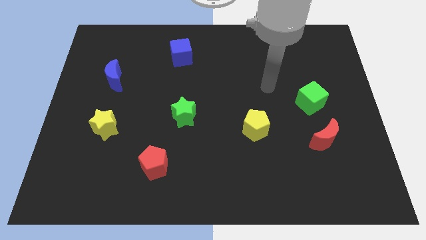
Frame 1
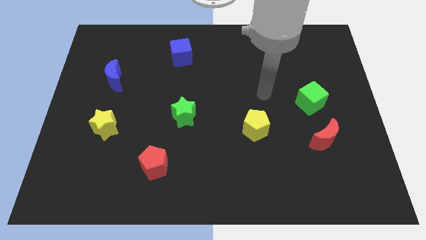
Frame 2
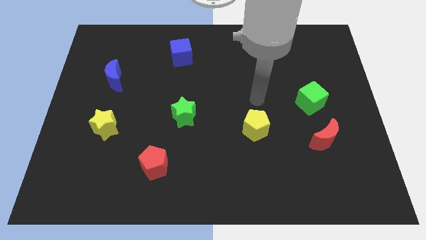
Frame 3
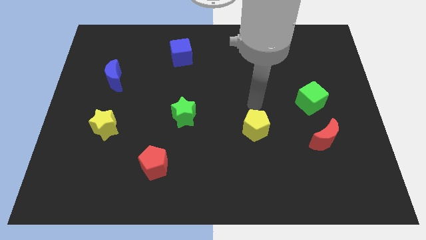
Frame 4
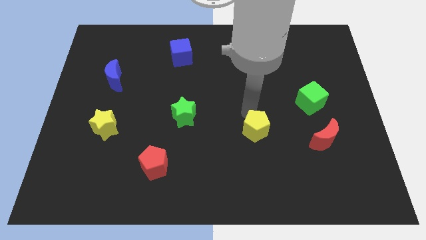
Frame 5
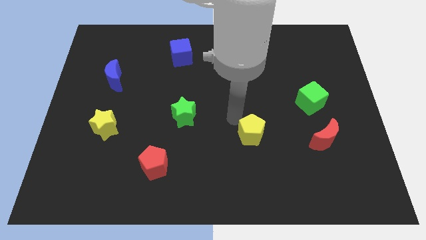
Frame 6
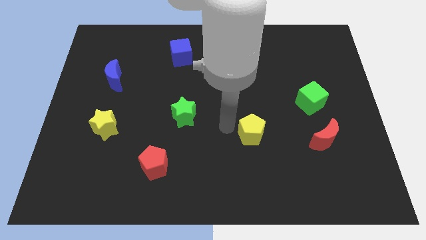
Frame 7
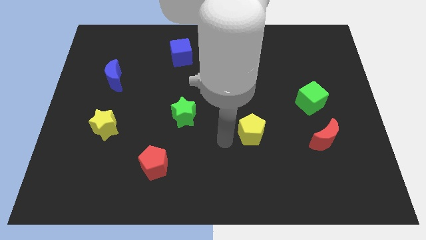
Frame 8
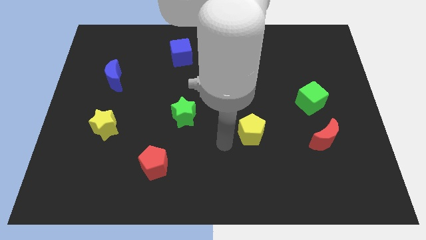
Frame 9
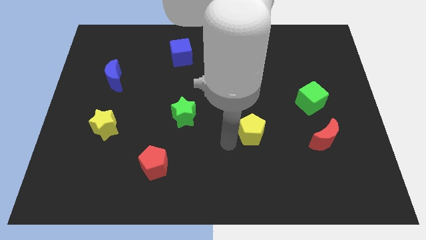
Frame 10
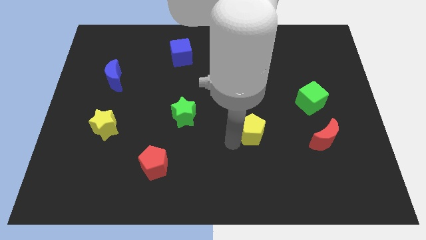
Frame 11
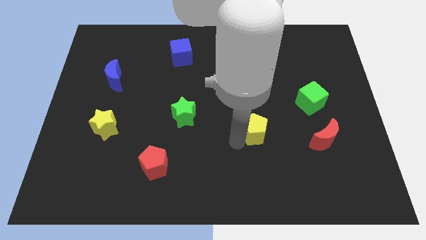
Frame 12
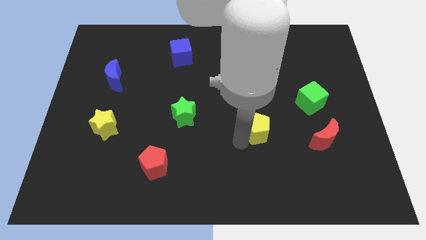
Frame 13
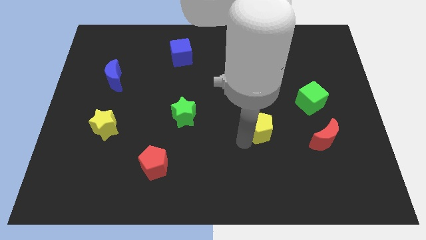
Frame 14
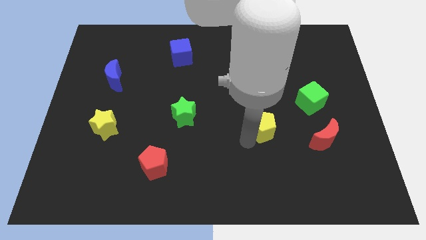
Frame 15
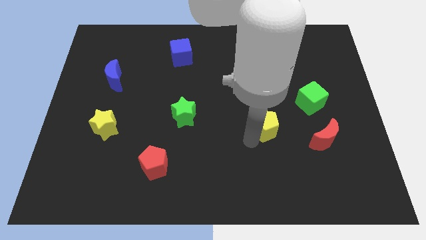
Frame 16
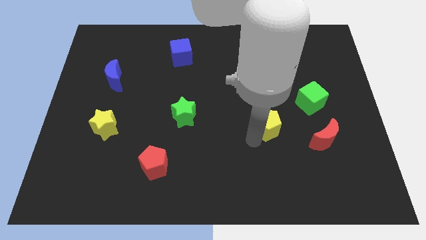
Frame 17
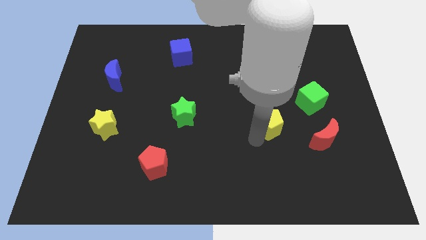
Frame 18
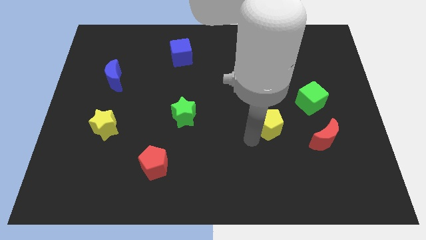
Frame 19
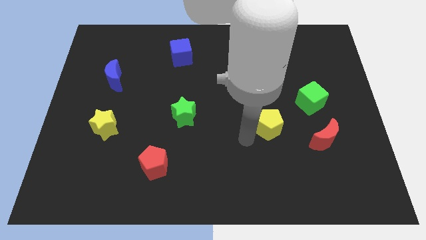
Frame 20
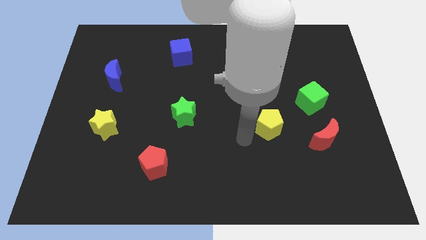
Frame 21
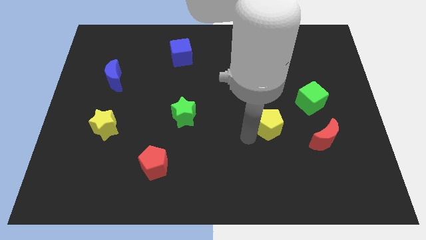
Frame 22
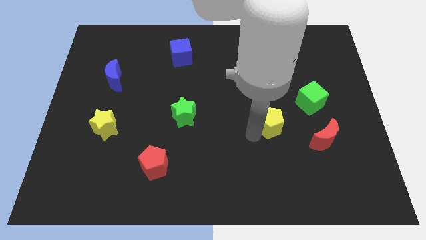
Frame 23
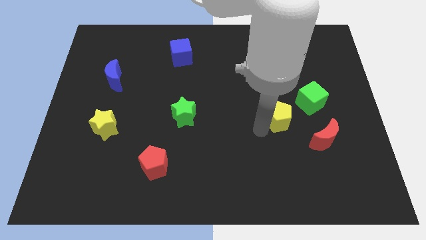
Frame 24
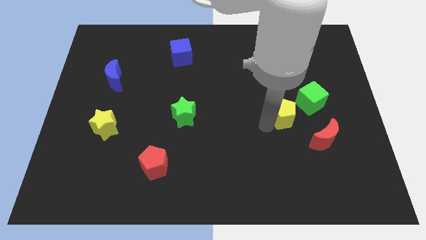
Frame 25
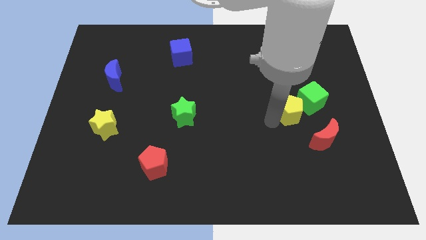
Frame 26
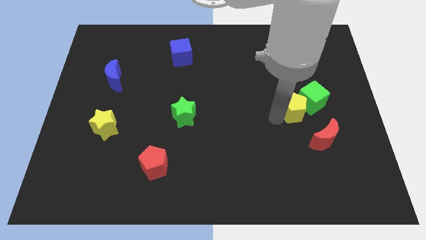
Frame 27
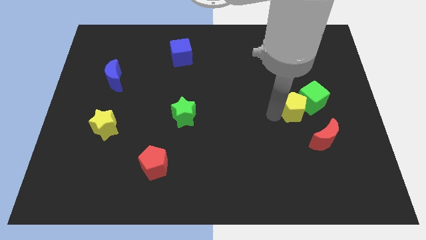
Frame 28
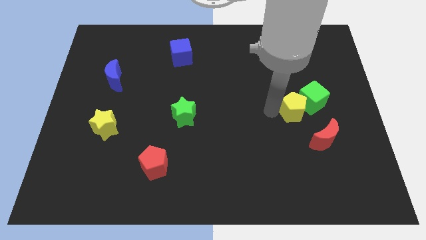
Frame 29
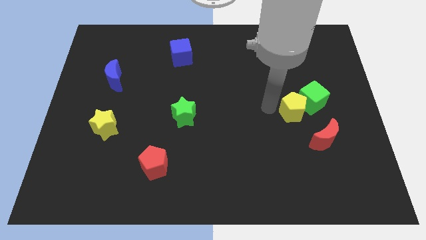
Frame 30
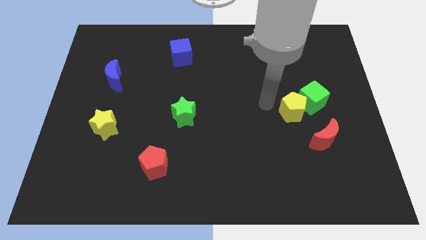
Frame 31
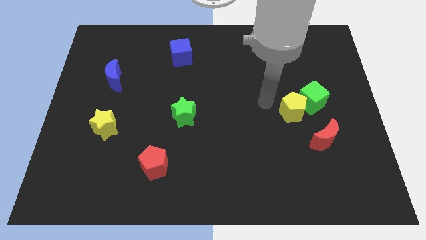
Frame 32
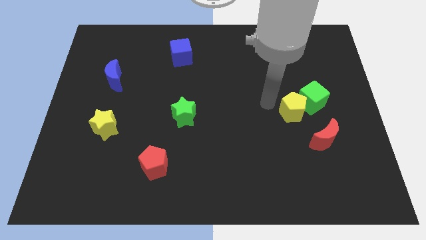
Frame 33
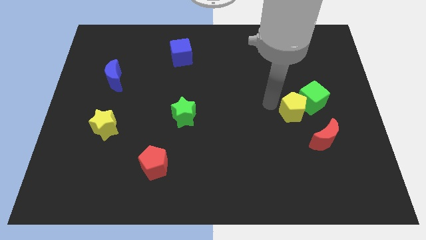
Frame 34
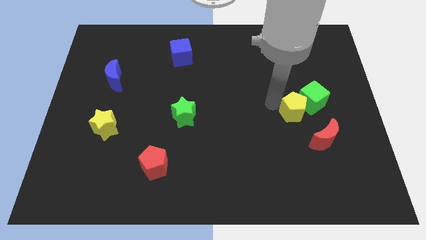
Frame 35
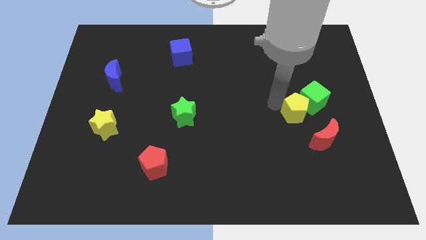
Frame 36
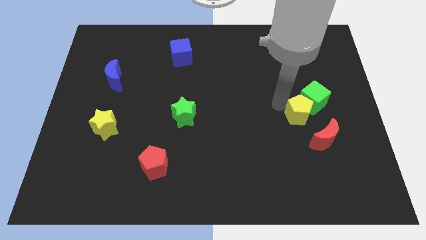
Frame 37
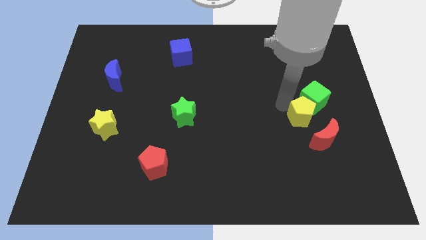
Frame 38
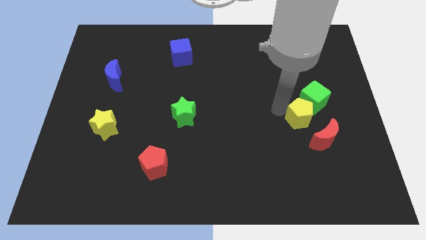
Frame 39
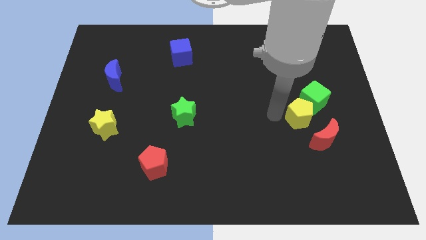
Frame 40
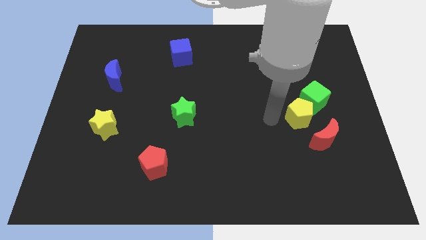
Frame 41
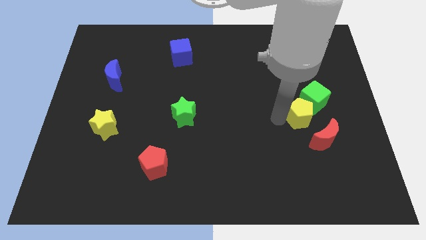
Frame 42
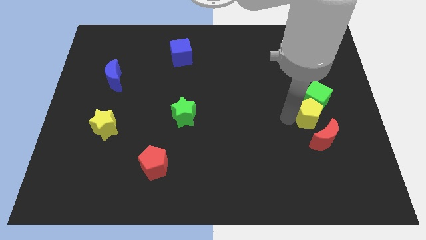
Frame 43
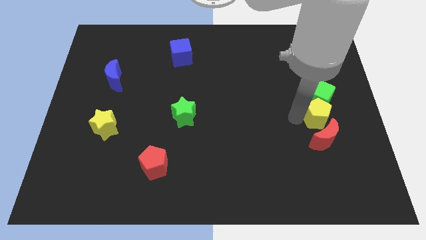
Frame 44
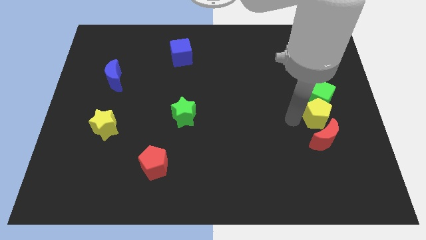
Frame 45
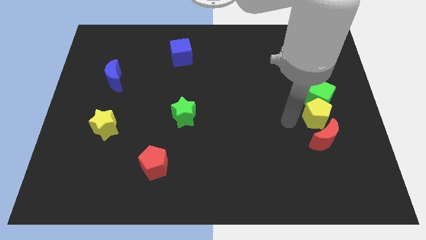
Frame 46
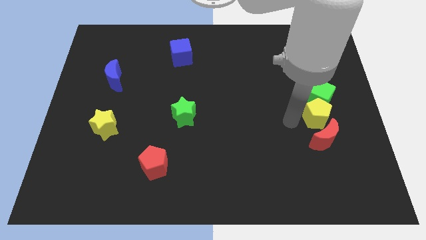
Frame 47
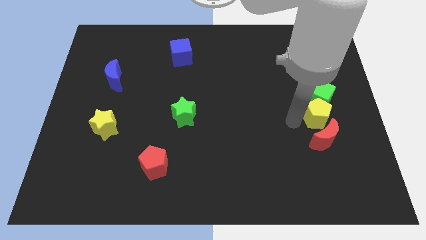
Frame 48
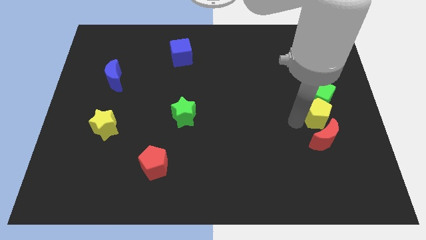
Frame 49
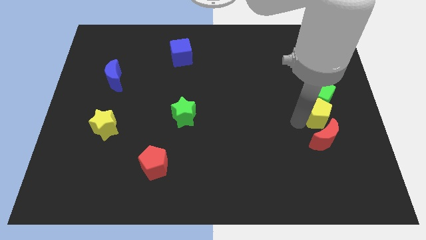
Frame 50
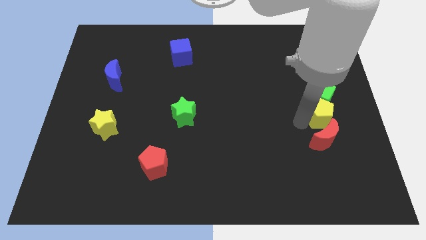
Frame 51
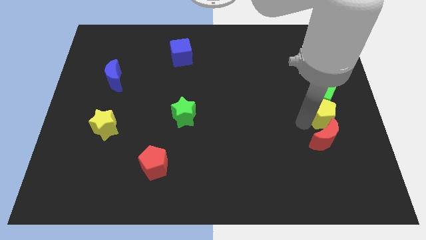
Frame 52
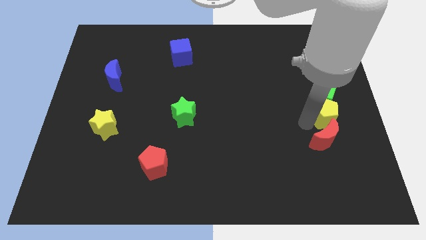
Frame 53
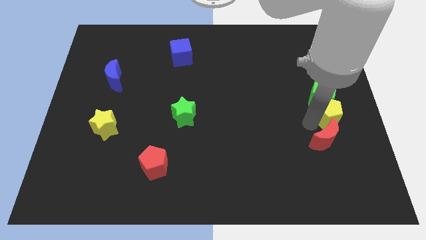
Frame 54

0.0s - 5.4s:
slide the yellow pentagon to the right side of the board
